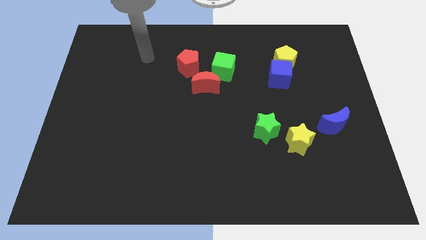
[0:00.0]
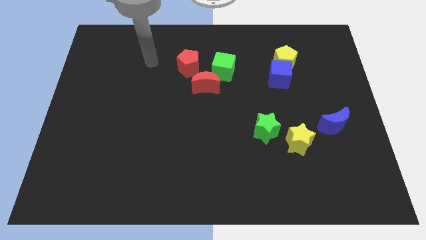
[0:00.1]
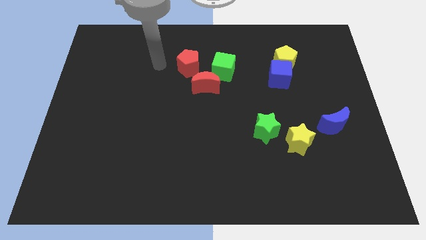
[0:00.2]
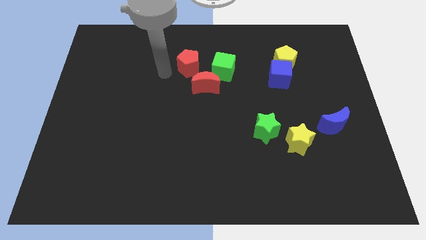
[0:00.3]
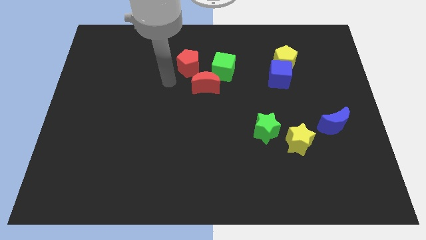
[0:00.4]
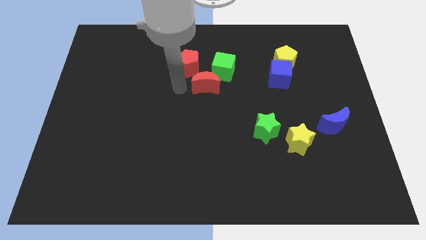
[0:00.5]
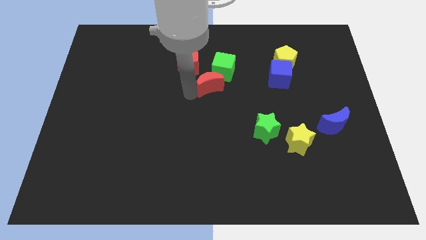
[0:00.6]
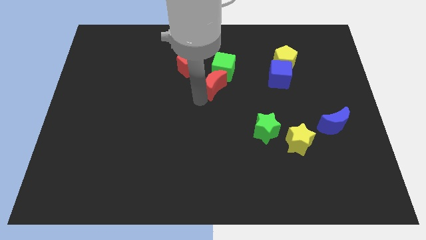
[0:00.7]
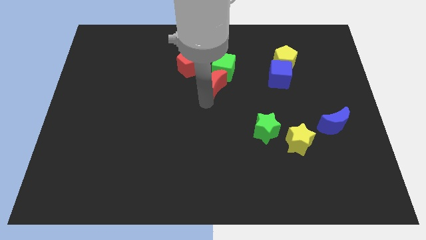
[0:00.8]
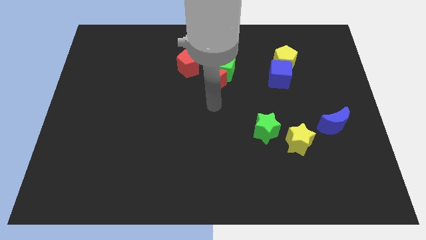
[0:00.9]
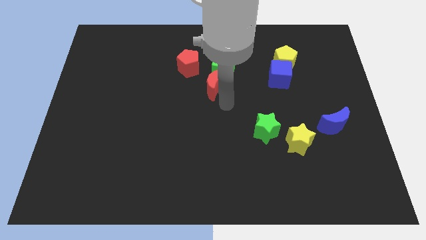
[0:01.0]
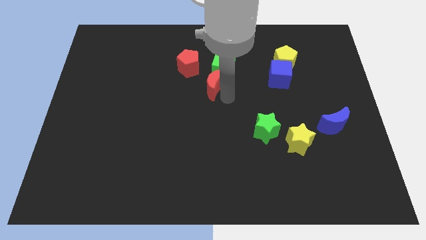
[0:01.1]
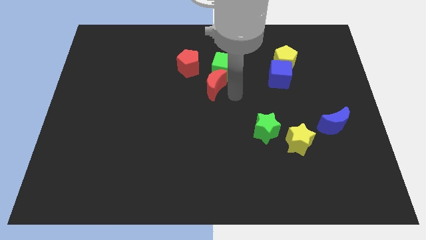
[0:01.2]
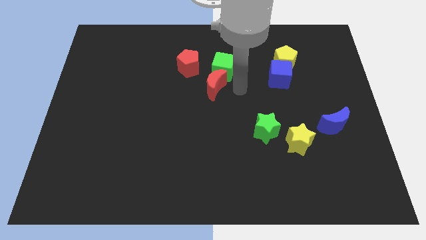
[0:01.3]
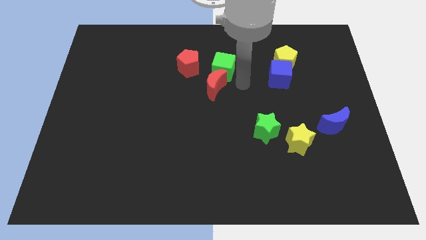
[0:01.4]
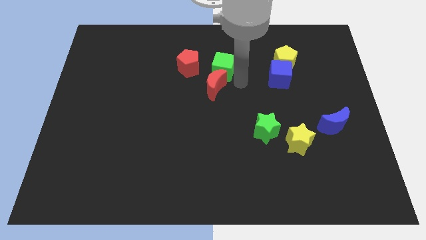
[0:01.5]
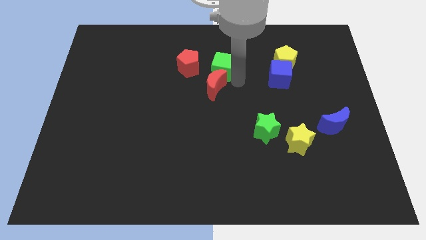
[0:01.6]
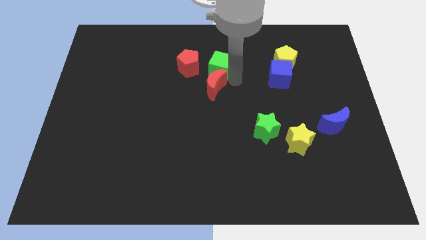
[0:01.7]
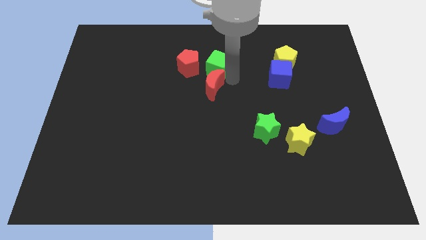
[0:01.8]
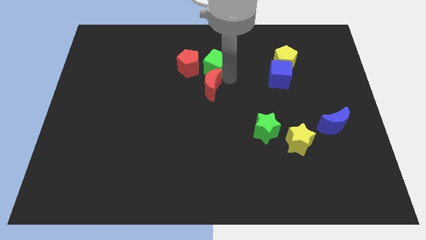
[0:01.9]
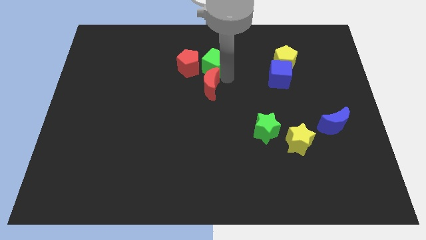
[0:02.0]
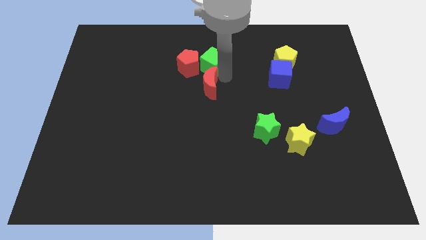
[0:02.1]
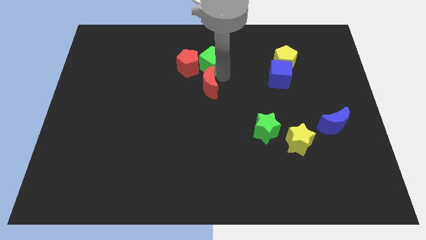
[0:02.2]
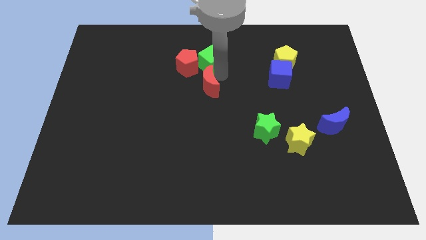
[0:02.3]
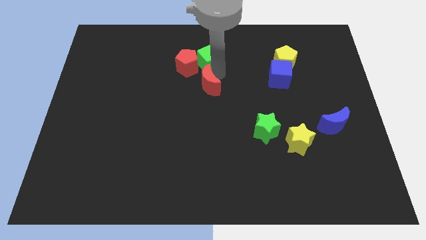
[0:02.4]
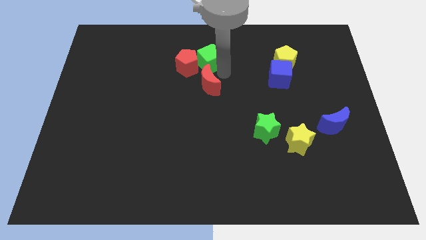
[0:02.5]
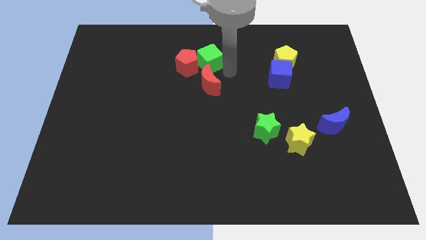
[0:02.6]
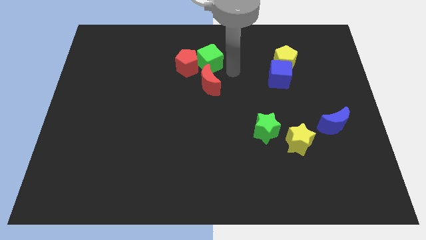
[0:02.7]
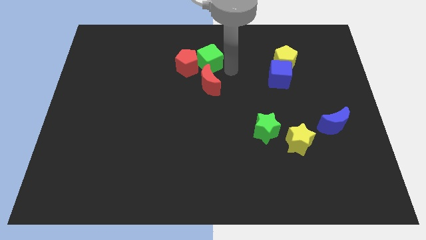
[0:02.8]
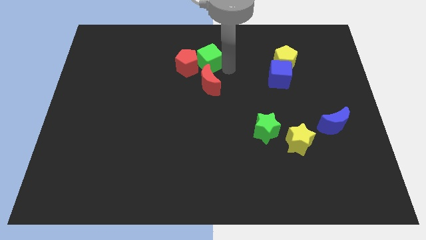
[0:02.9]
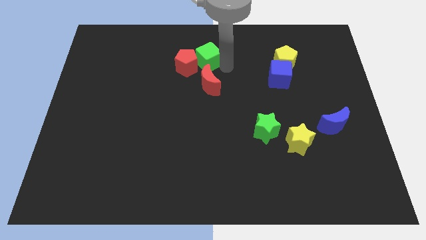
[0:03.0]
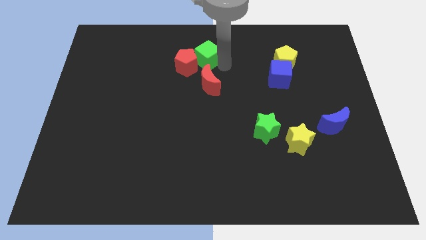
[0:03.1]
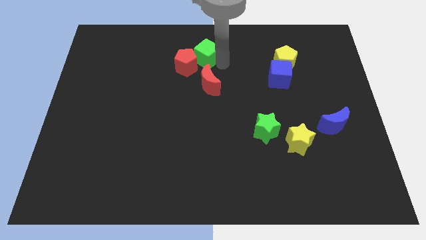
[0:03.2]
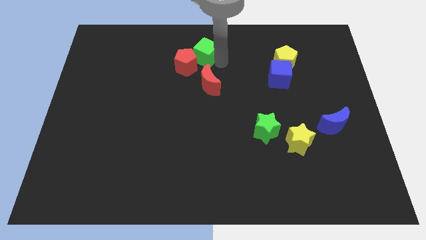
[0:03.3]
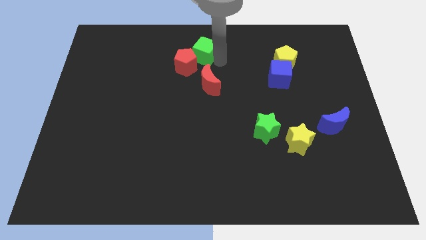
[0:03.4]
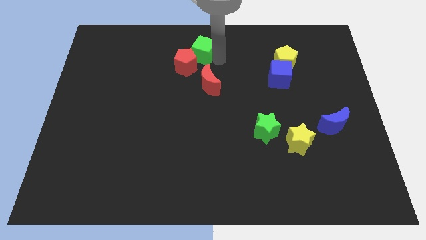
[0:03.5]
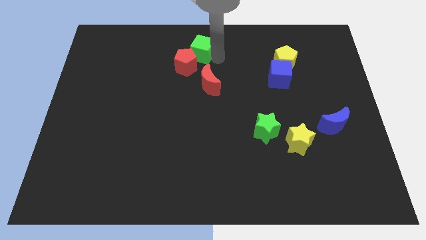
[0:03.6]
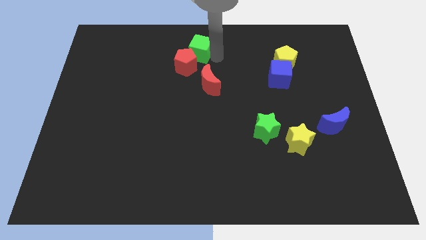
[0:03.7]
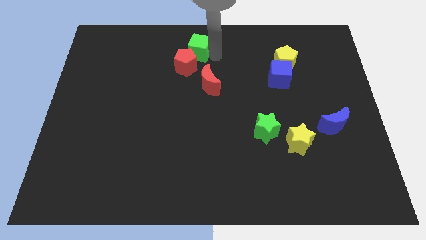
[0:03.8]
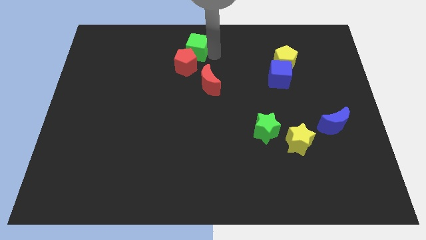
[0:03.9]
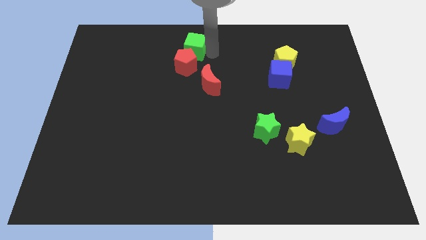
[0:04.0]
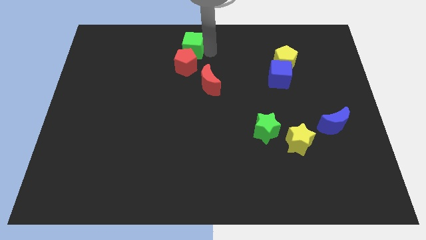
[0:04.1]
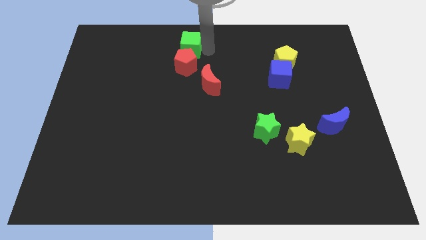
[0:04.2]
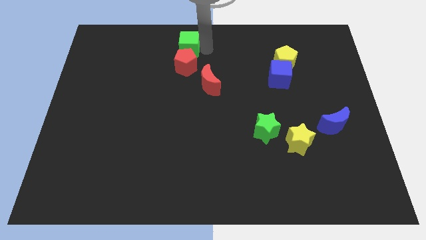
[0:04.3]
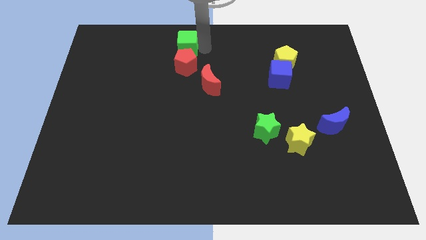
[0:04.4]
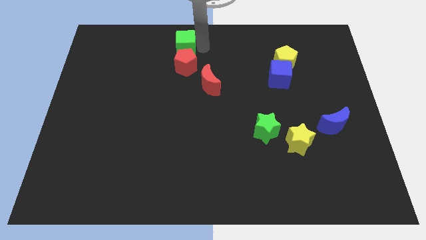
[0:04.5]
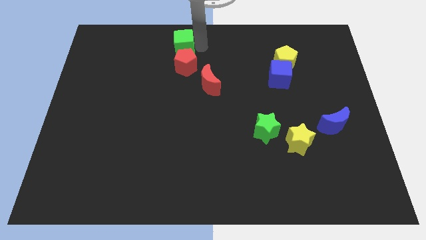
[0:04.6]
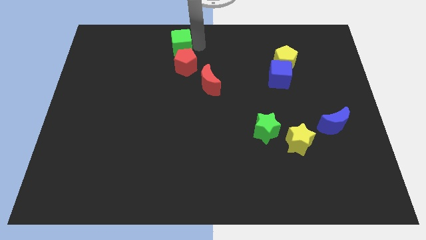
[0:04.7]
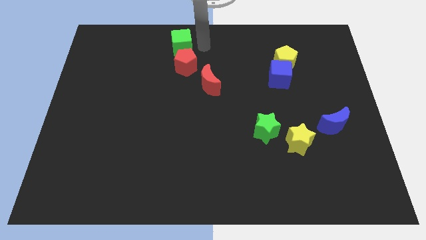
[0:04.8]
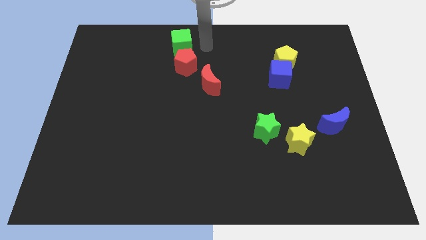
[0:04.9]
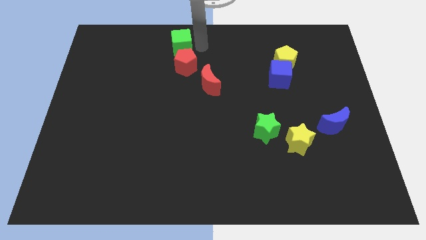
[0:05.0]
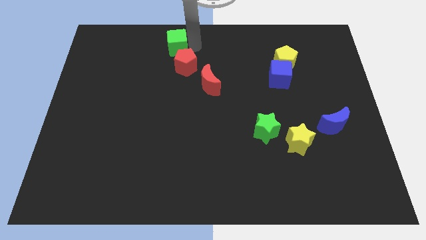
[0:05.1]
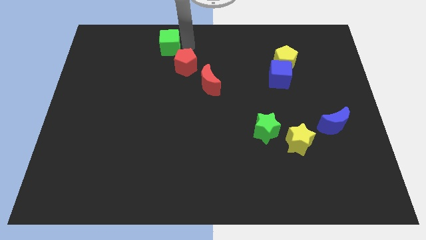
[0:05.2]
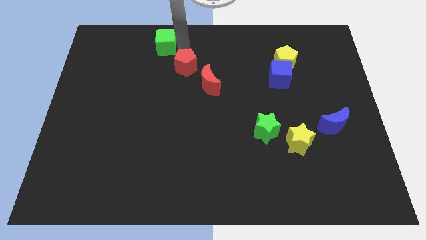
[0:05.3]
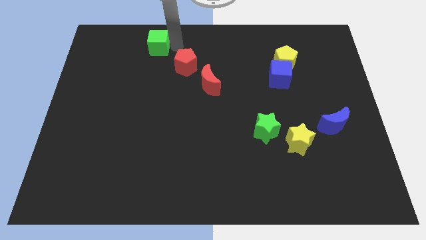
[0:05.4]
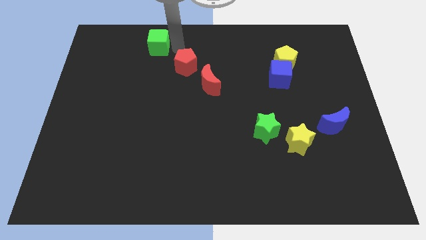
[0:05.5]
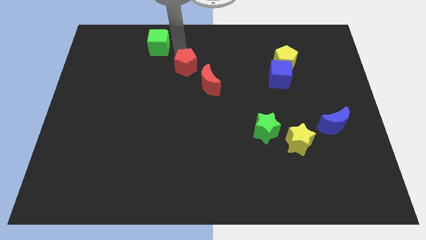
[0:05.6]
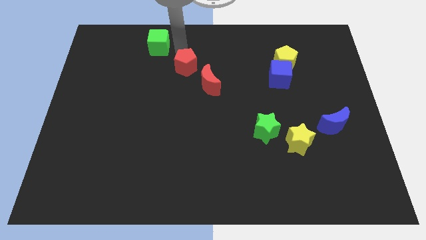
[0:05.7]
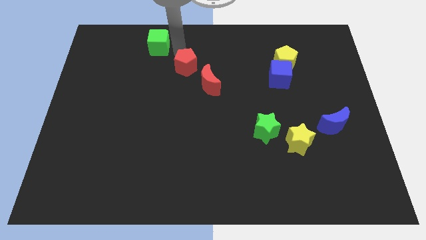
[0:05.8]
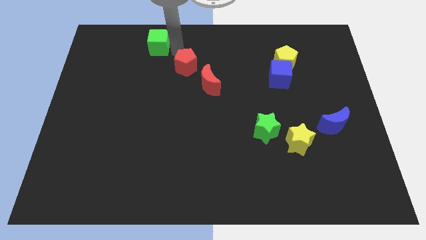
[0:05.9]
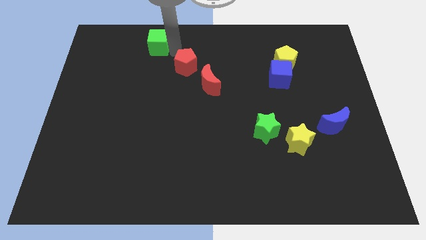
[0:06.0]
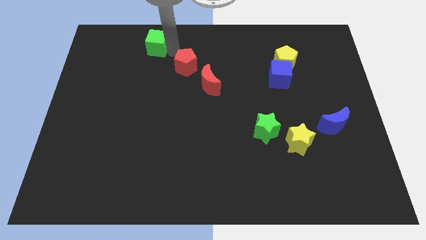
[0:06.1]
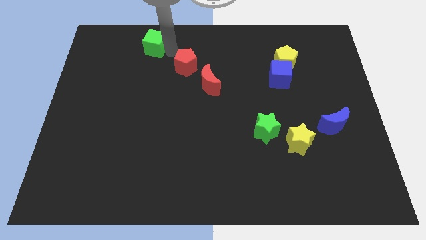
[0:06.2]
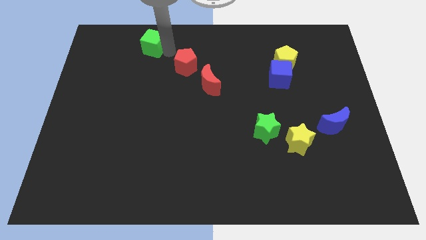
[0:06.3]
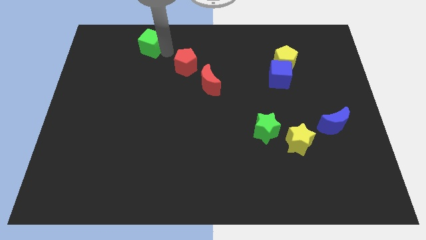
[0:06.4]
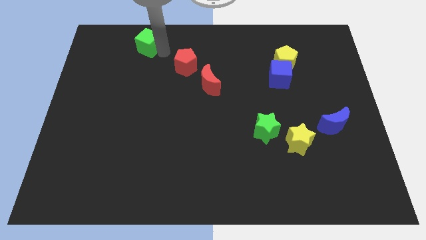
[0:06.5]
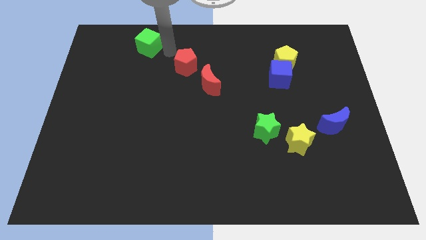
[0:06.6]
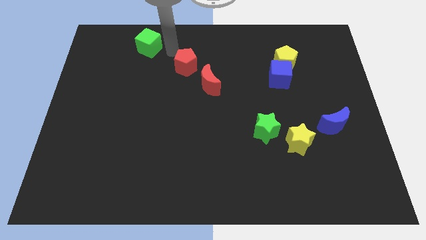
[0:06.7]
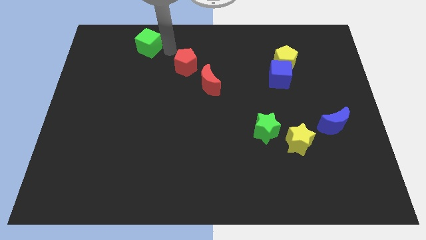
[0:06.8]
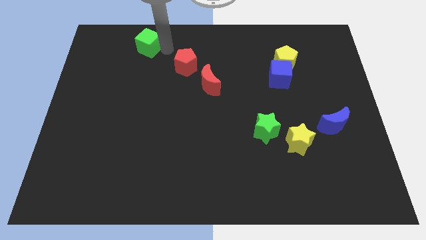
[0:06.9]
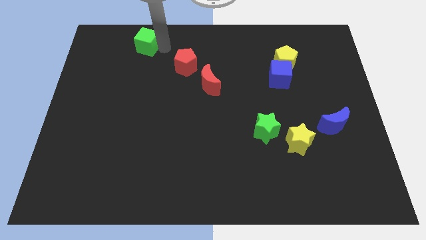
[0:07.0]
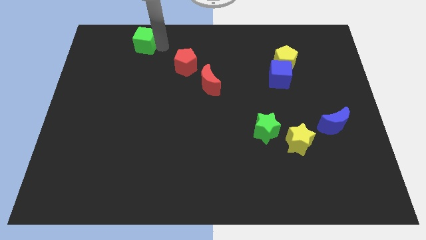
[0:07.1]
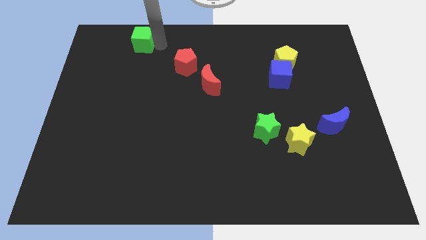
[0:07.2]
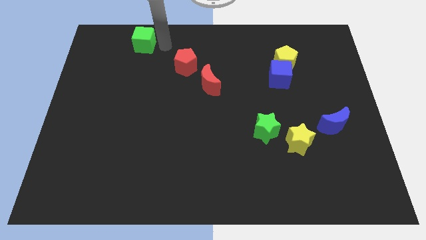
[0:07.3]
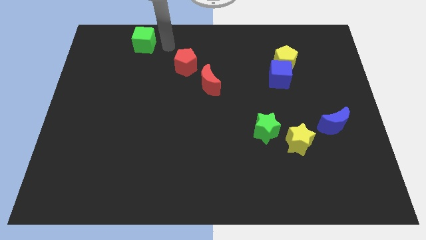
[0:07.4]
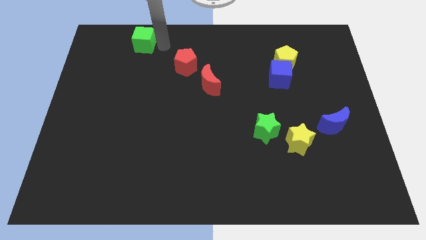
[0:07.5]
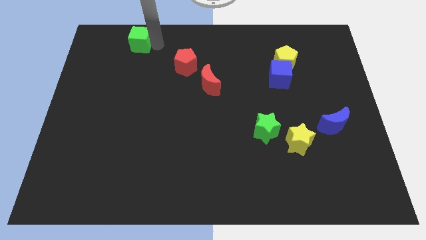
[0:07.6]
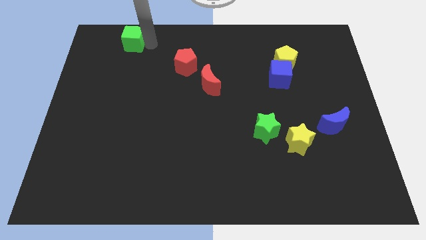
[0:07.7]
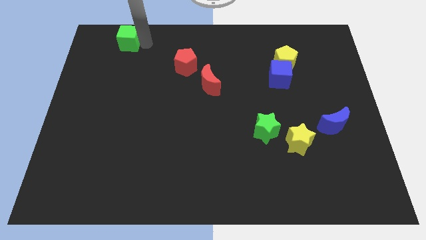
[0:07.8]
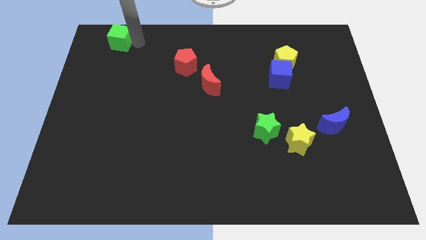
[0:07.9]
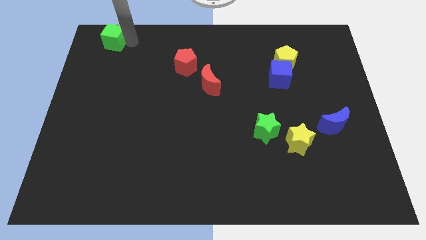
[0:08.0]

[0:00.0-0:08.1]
push the green cube to the upper left corner
